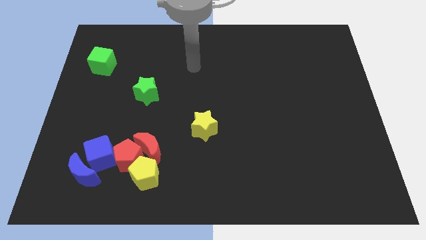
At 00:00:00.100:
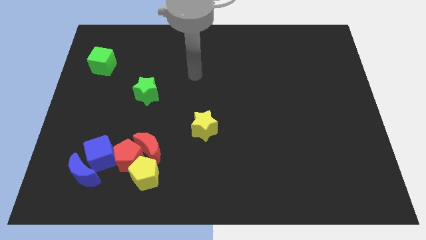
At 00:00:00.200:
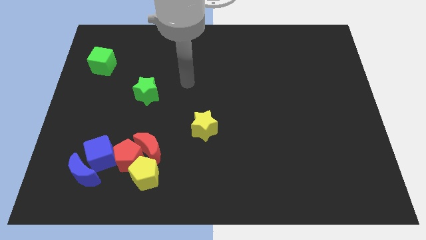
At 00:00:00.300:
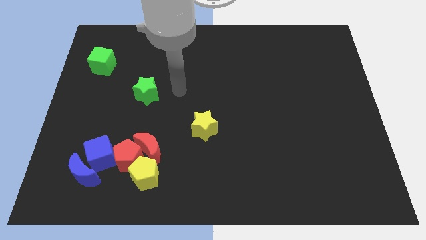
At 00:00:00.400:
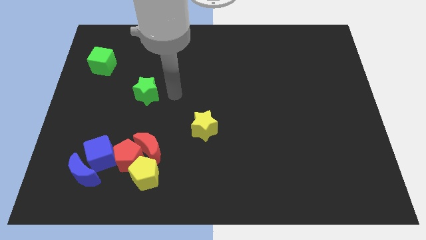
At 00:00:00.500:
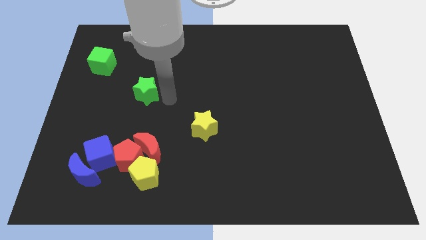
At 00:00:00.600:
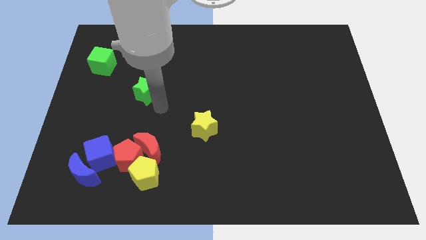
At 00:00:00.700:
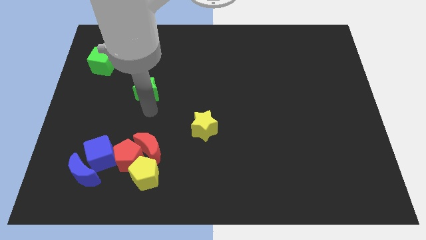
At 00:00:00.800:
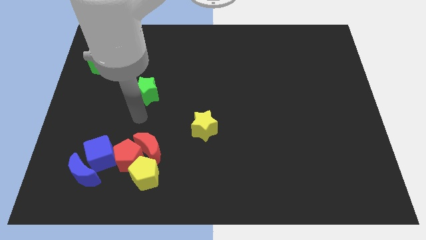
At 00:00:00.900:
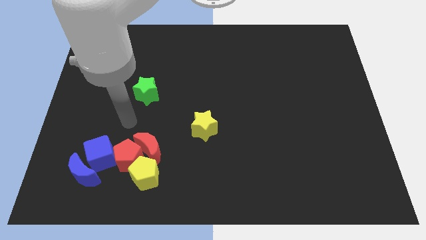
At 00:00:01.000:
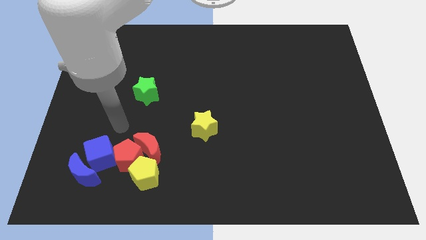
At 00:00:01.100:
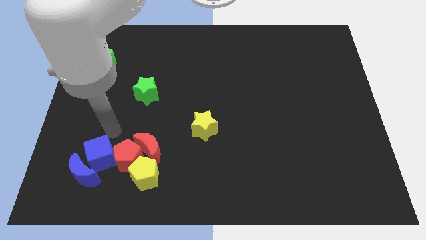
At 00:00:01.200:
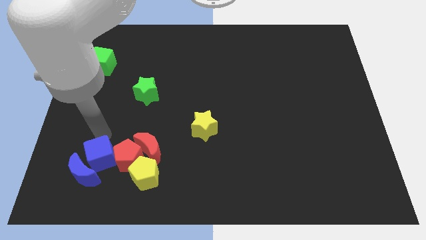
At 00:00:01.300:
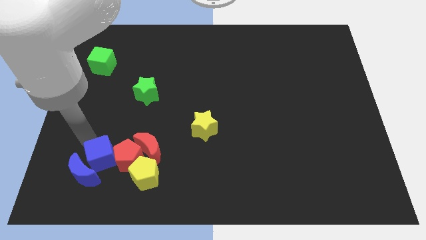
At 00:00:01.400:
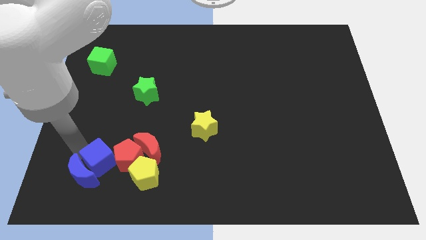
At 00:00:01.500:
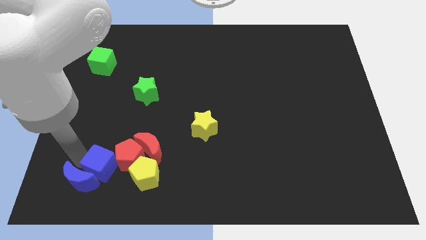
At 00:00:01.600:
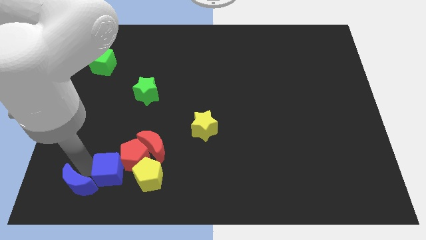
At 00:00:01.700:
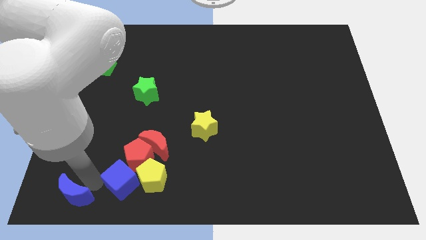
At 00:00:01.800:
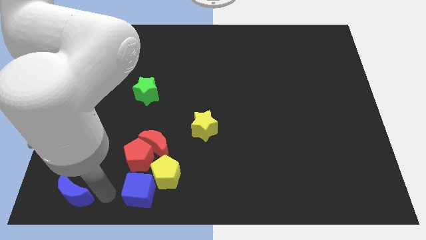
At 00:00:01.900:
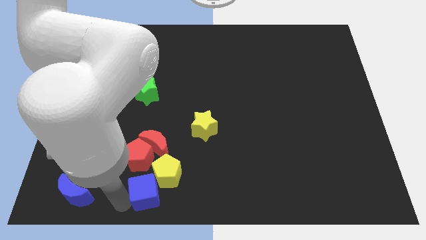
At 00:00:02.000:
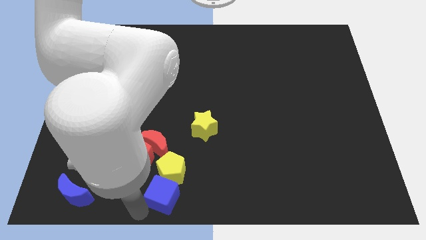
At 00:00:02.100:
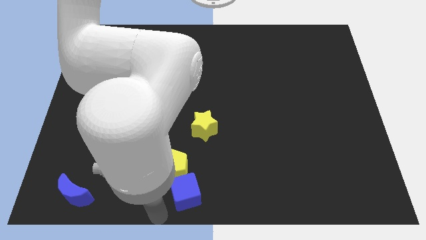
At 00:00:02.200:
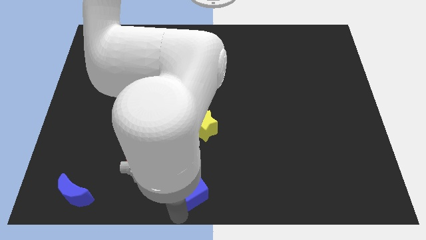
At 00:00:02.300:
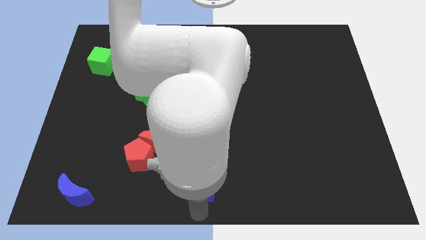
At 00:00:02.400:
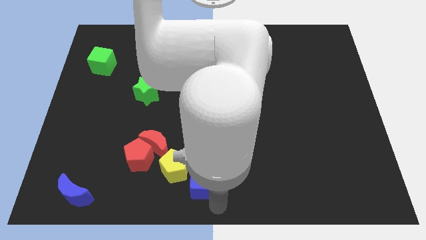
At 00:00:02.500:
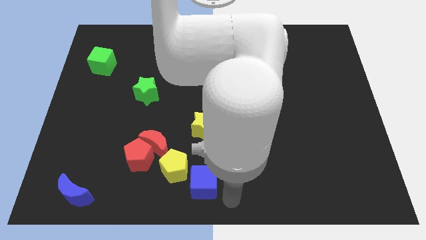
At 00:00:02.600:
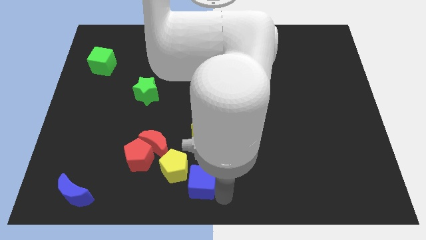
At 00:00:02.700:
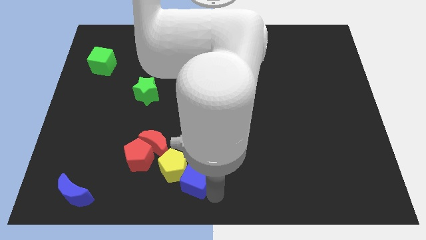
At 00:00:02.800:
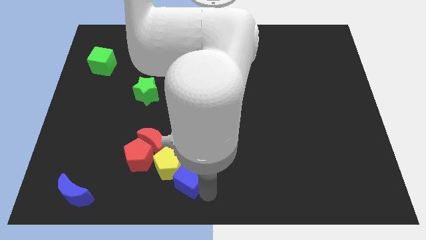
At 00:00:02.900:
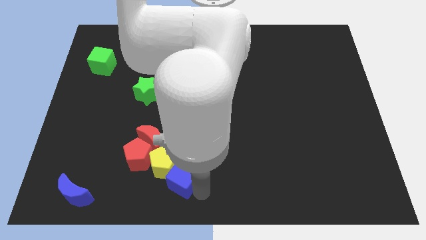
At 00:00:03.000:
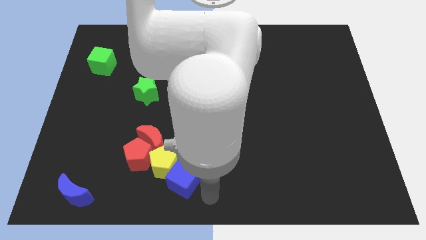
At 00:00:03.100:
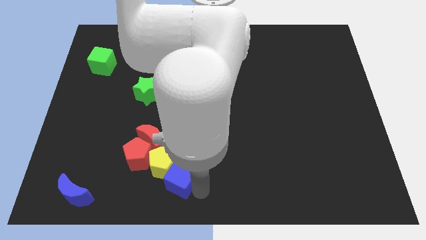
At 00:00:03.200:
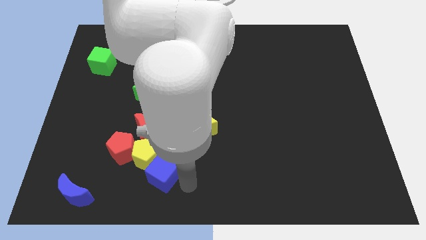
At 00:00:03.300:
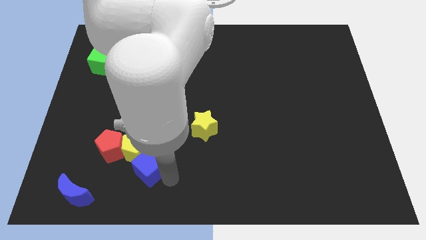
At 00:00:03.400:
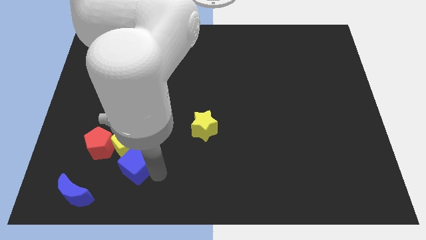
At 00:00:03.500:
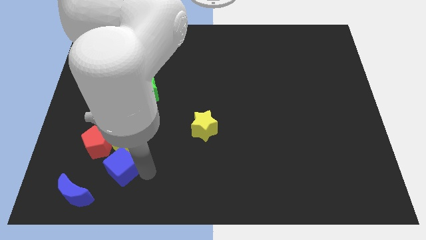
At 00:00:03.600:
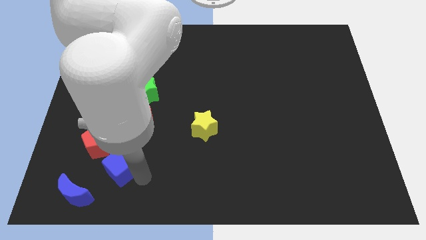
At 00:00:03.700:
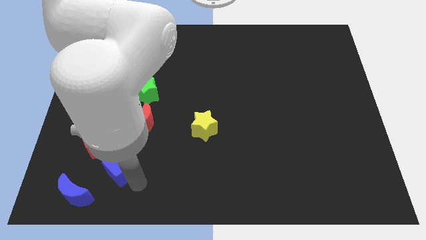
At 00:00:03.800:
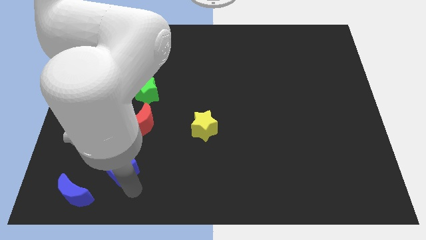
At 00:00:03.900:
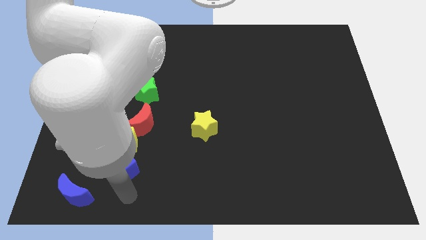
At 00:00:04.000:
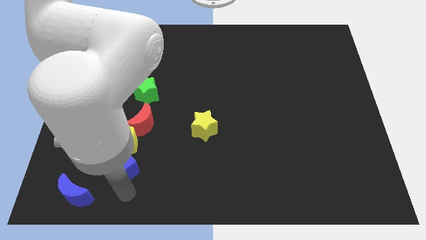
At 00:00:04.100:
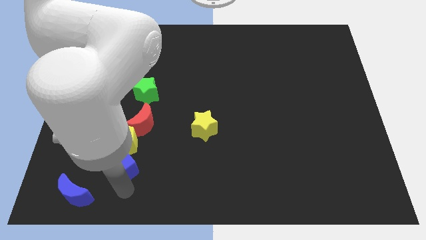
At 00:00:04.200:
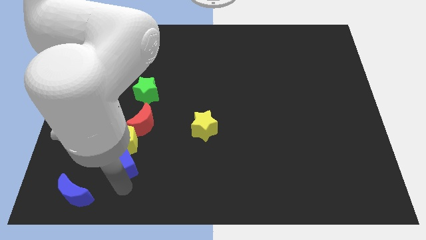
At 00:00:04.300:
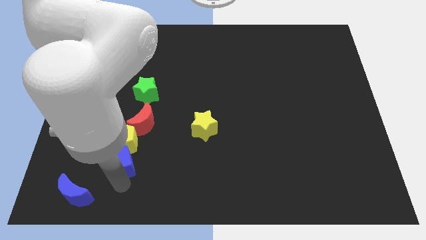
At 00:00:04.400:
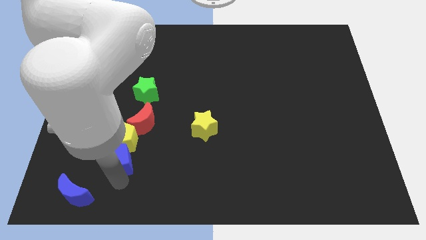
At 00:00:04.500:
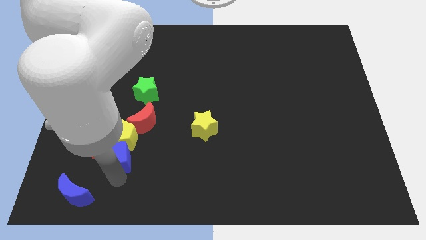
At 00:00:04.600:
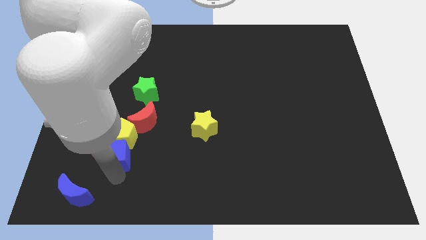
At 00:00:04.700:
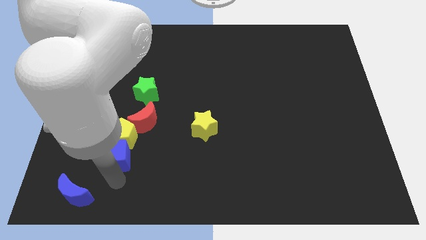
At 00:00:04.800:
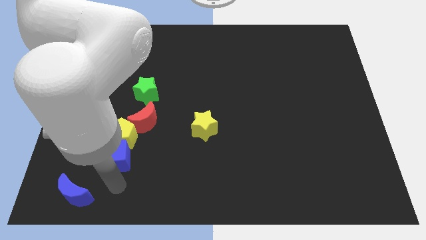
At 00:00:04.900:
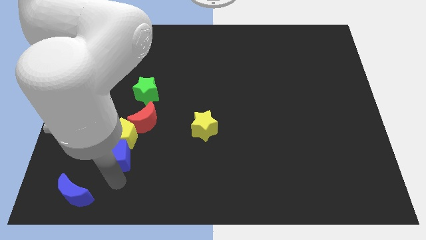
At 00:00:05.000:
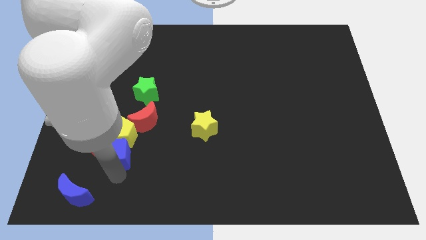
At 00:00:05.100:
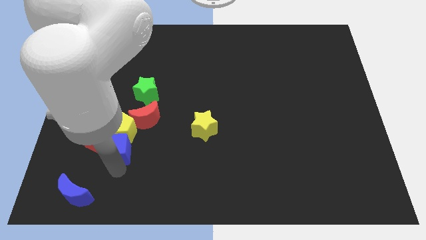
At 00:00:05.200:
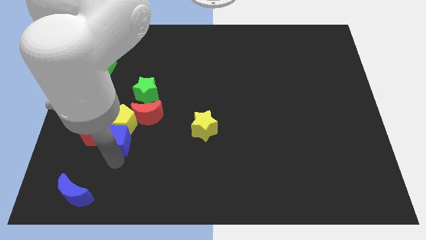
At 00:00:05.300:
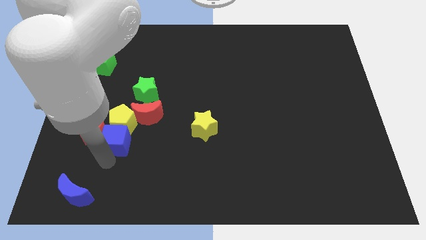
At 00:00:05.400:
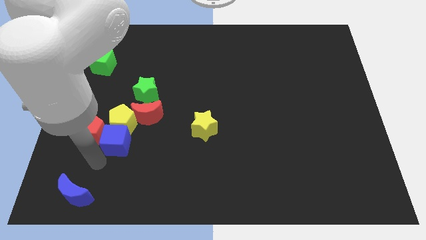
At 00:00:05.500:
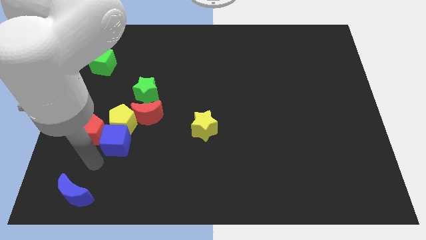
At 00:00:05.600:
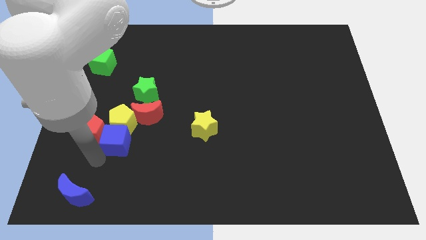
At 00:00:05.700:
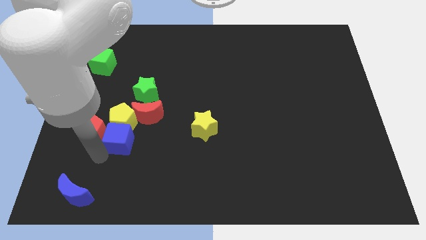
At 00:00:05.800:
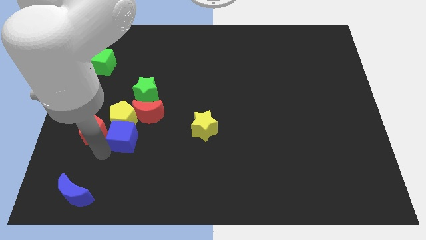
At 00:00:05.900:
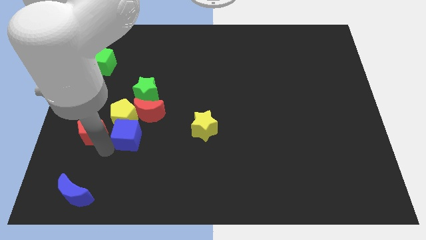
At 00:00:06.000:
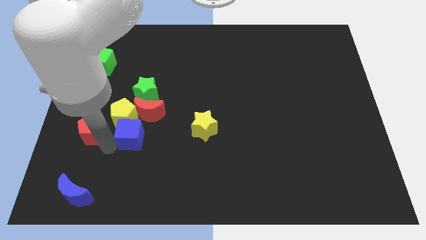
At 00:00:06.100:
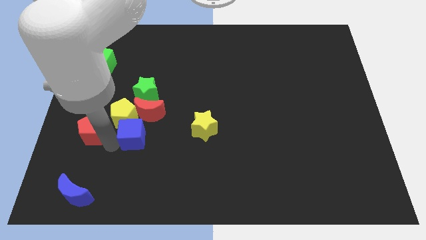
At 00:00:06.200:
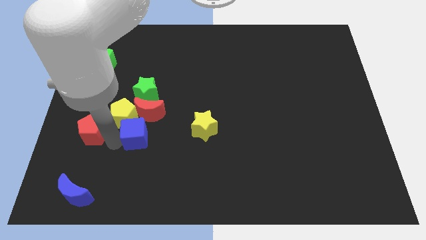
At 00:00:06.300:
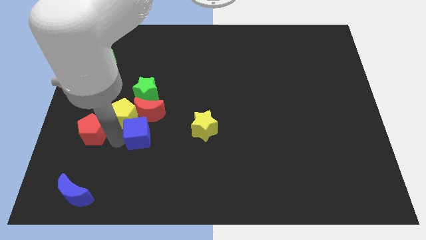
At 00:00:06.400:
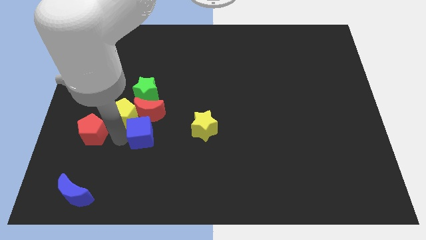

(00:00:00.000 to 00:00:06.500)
push the blue cube to the red moon
